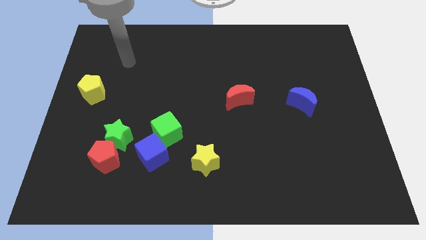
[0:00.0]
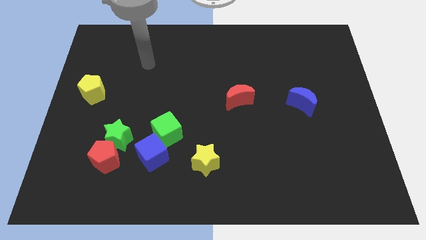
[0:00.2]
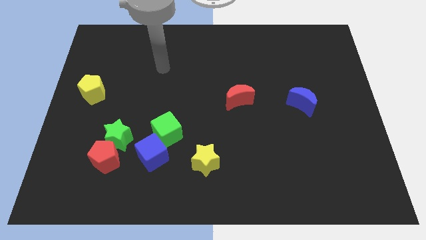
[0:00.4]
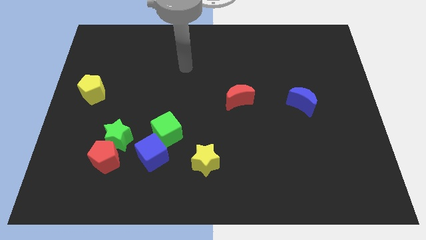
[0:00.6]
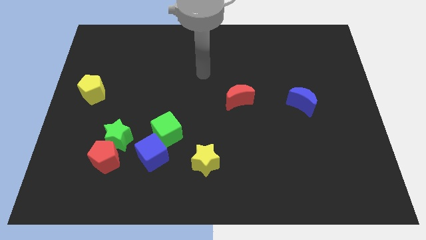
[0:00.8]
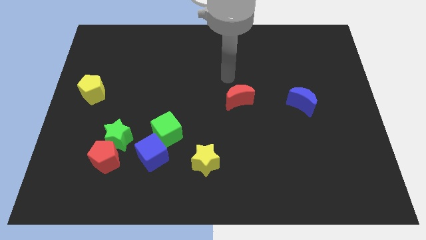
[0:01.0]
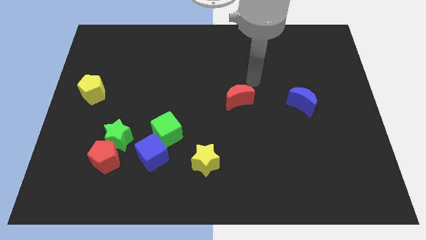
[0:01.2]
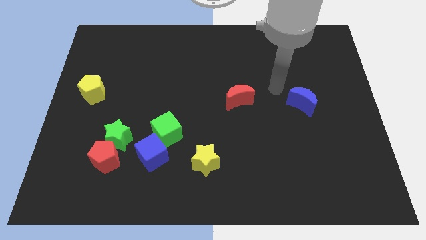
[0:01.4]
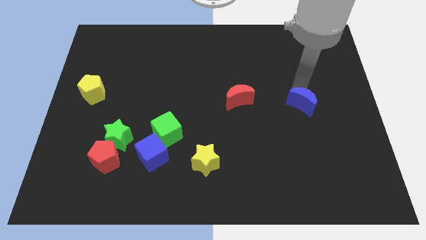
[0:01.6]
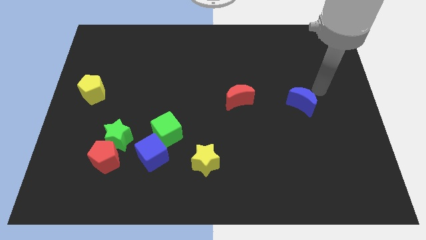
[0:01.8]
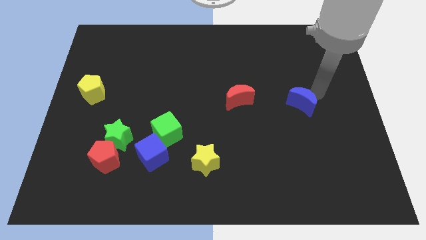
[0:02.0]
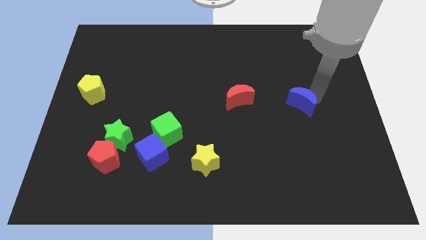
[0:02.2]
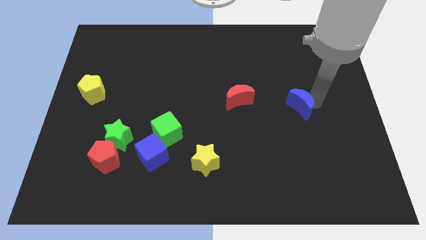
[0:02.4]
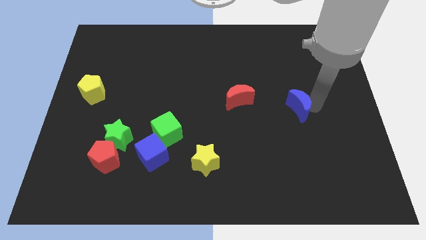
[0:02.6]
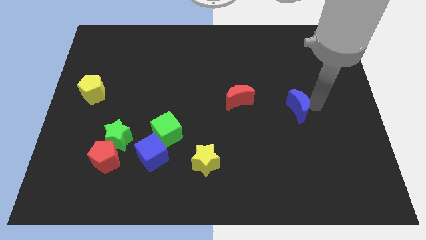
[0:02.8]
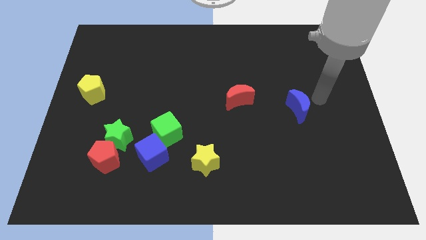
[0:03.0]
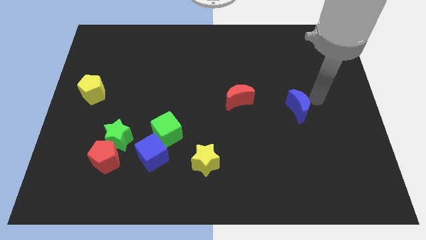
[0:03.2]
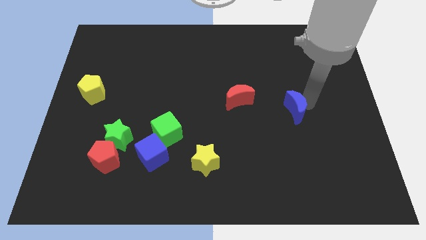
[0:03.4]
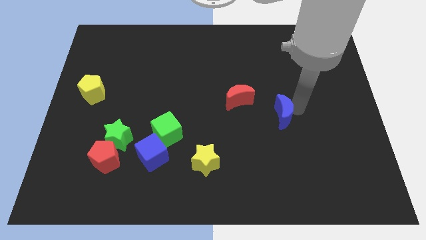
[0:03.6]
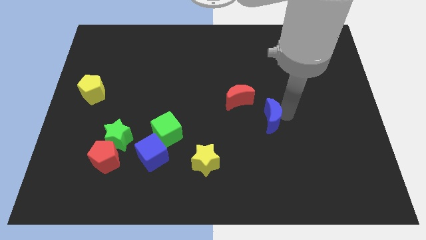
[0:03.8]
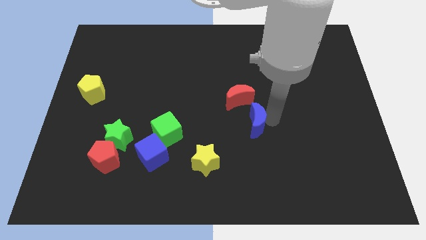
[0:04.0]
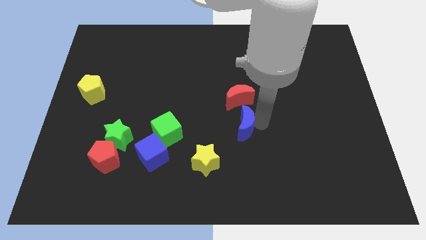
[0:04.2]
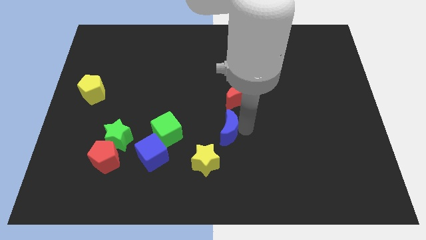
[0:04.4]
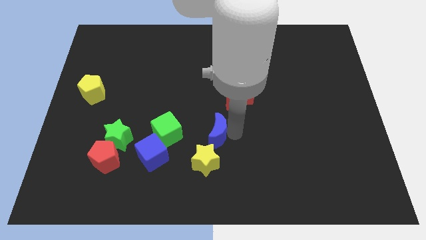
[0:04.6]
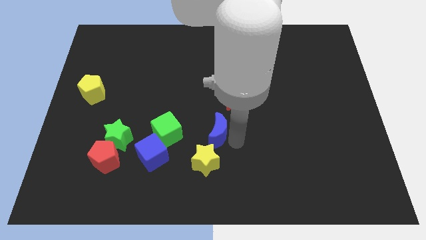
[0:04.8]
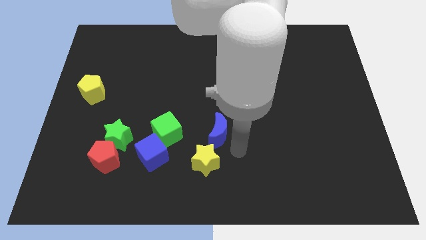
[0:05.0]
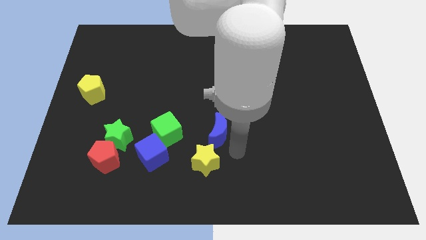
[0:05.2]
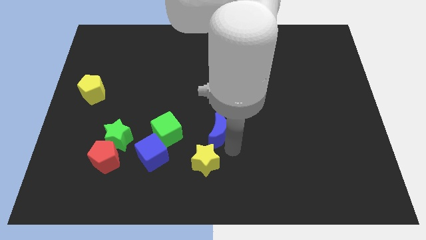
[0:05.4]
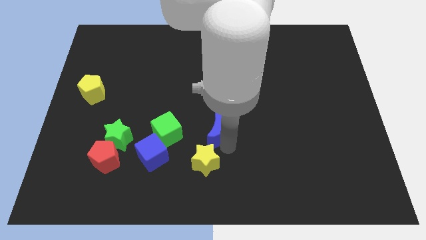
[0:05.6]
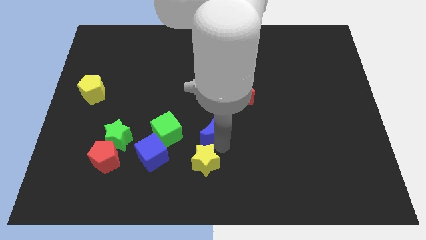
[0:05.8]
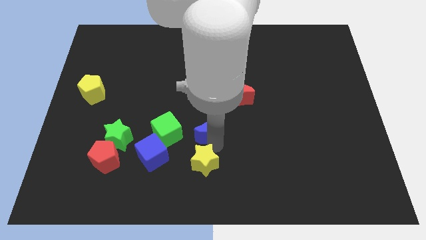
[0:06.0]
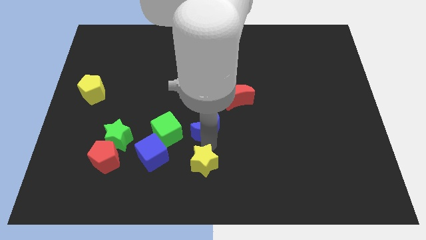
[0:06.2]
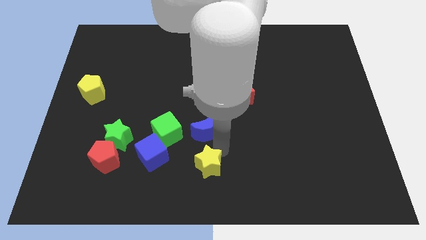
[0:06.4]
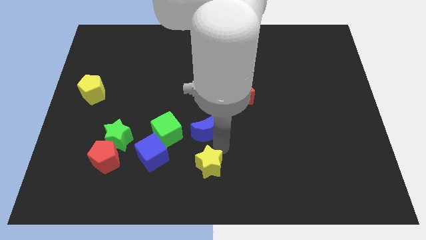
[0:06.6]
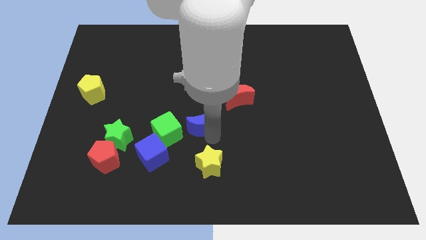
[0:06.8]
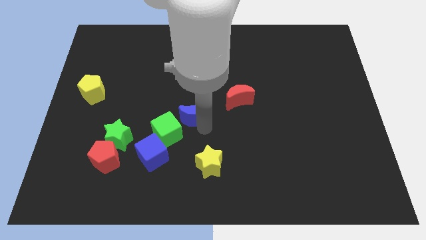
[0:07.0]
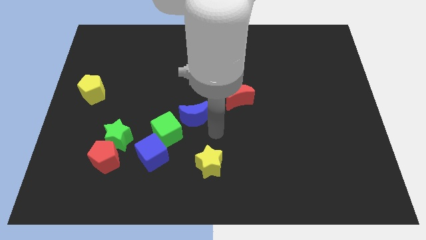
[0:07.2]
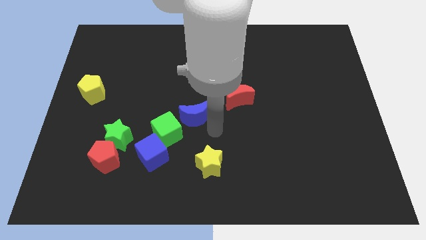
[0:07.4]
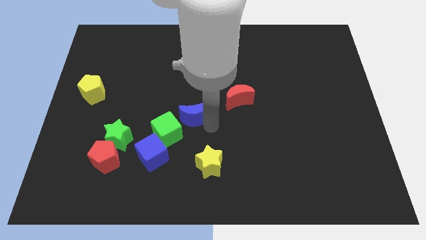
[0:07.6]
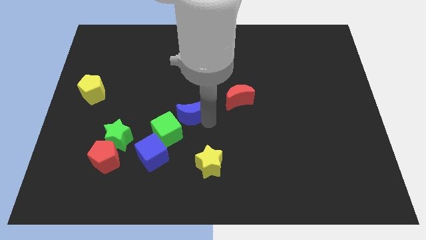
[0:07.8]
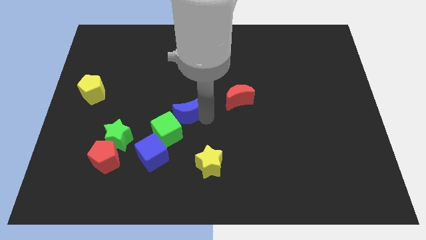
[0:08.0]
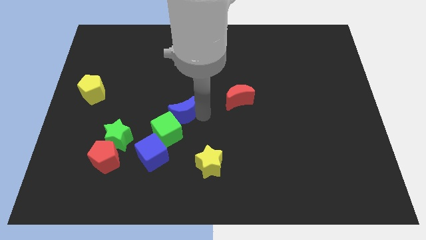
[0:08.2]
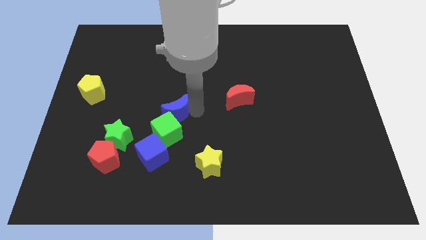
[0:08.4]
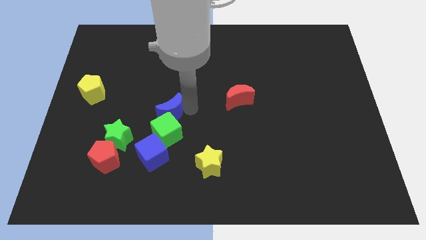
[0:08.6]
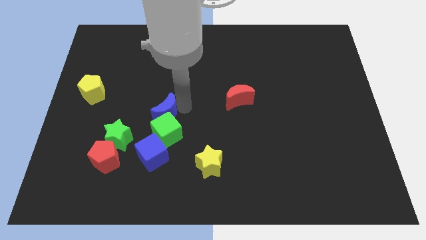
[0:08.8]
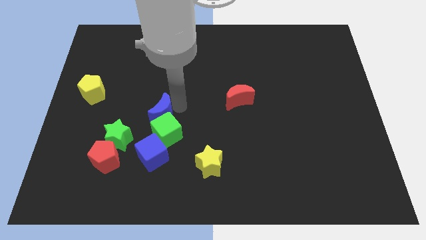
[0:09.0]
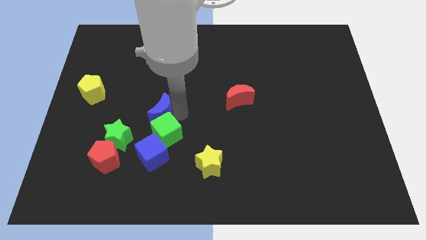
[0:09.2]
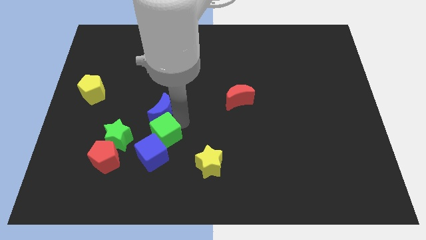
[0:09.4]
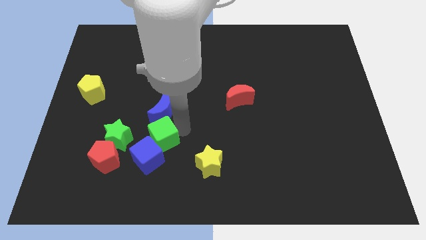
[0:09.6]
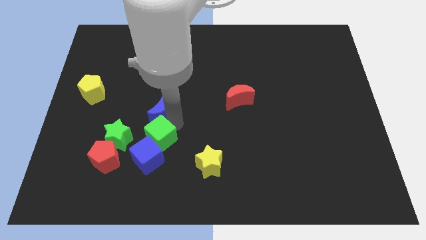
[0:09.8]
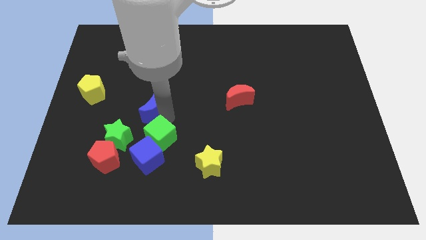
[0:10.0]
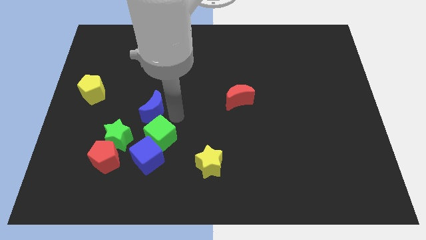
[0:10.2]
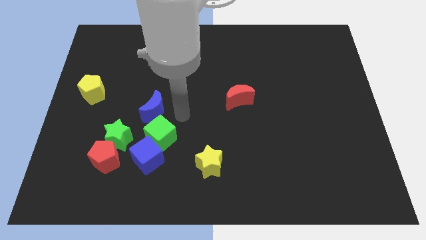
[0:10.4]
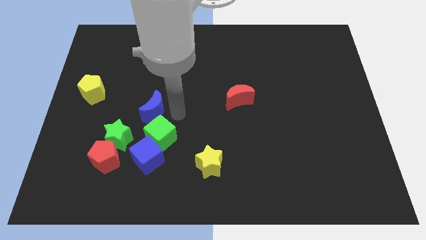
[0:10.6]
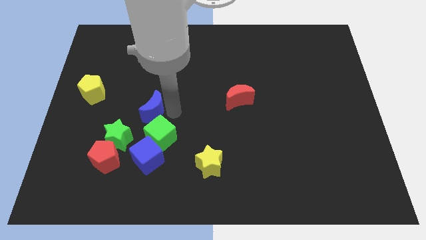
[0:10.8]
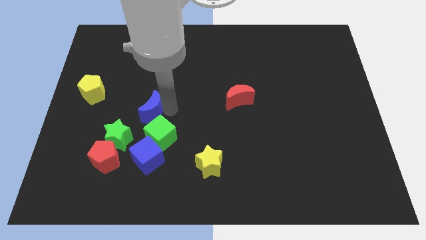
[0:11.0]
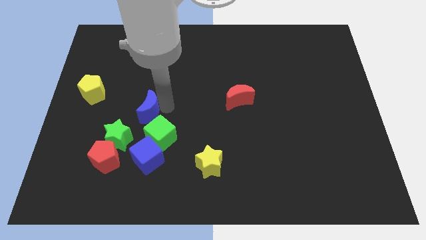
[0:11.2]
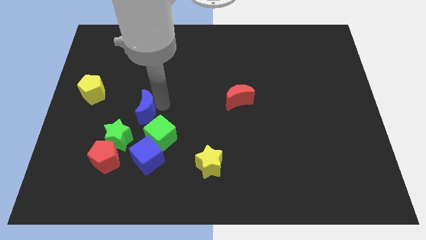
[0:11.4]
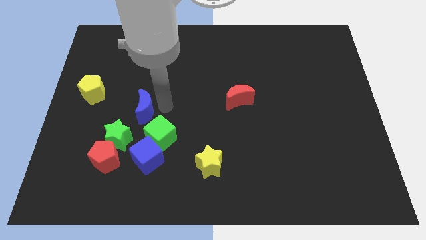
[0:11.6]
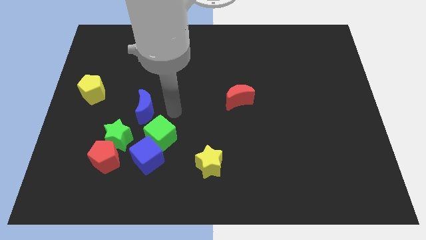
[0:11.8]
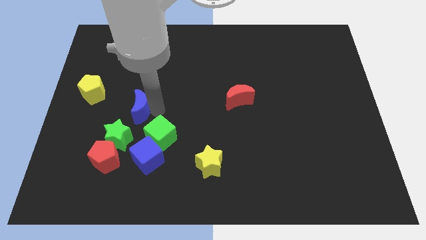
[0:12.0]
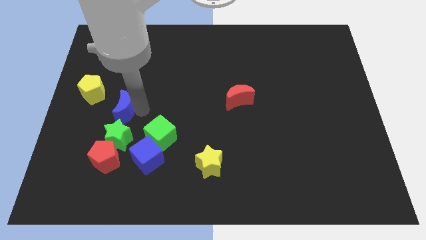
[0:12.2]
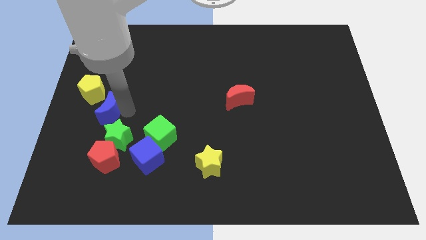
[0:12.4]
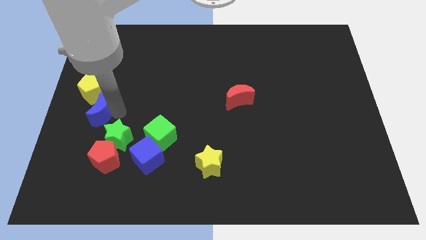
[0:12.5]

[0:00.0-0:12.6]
put the blue moon to the left side of the board
